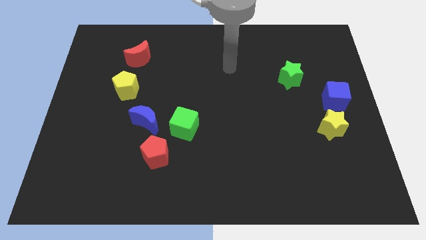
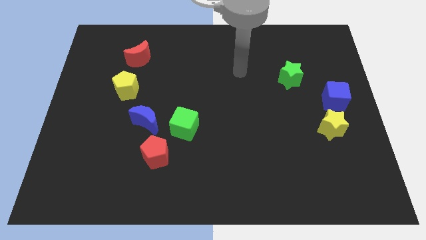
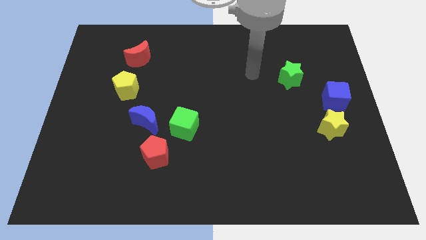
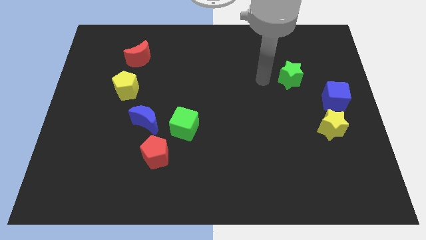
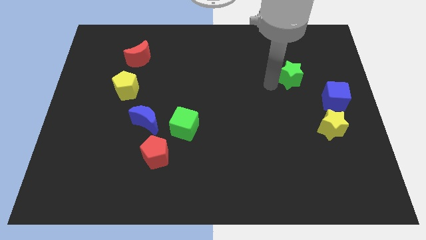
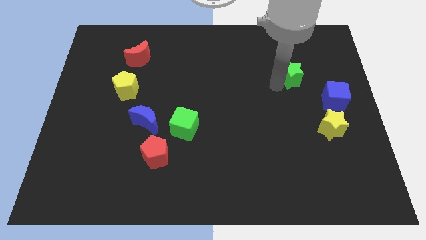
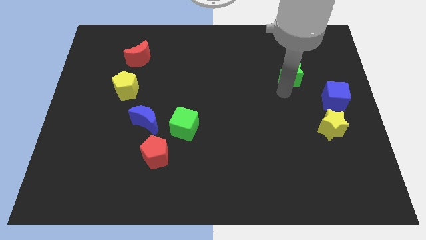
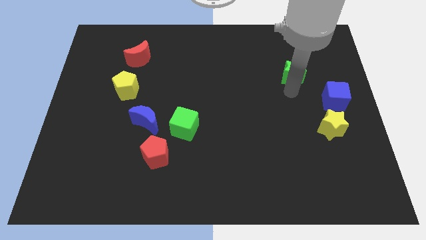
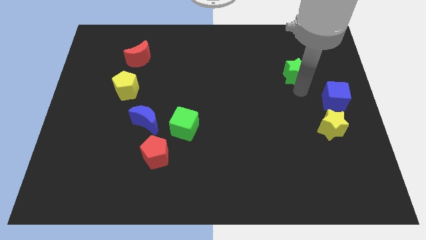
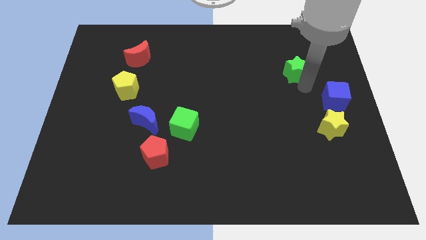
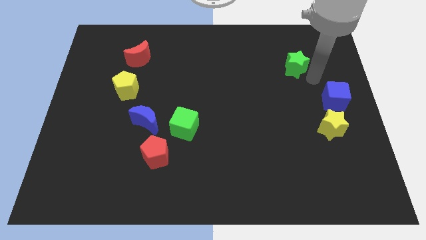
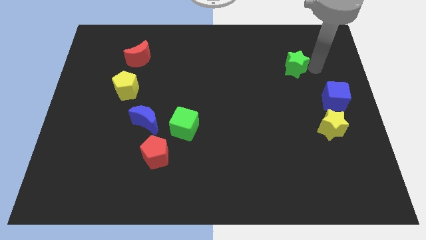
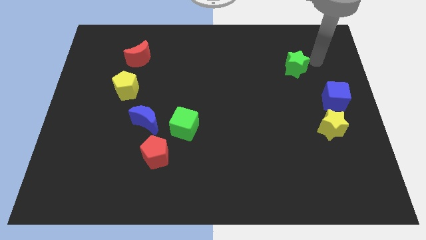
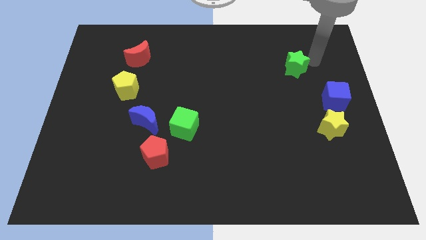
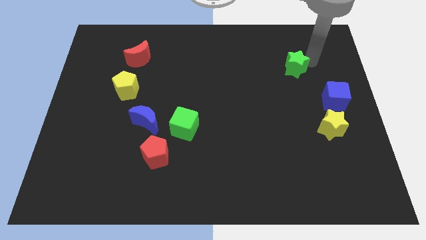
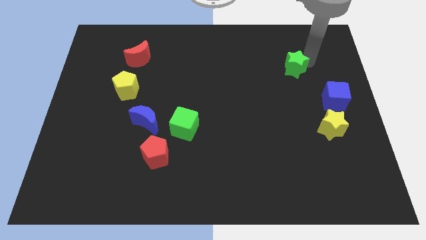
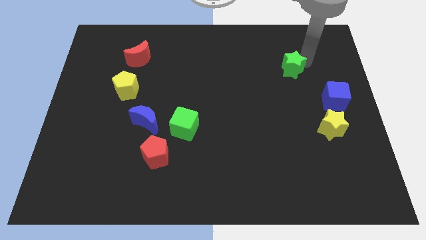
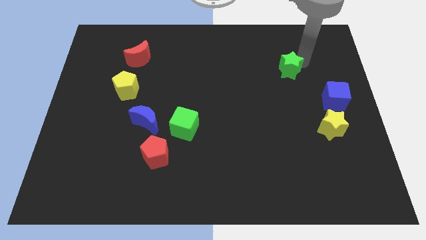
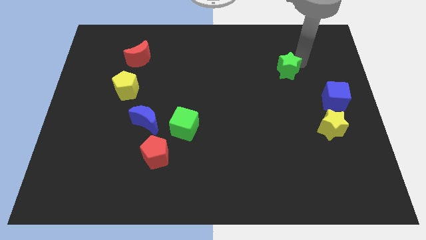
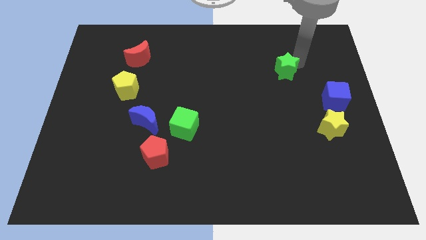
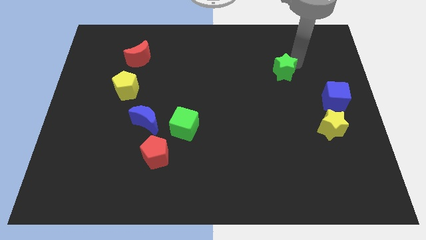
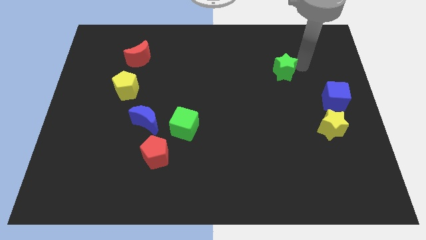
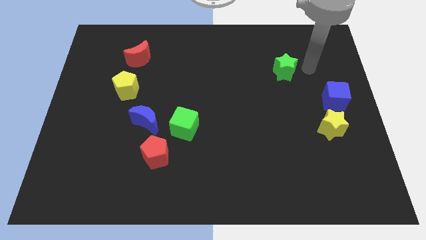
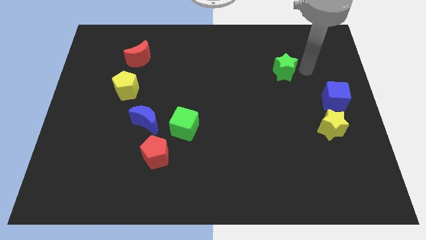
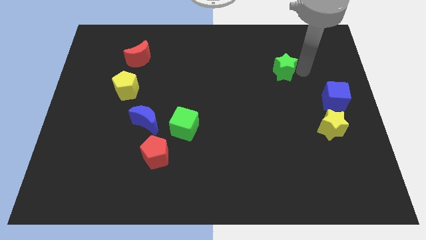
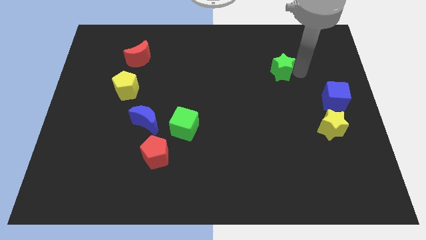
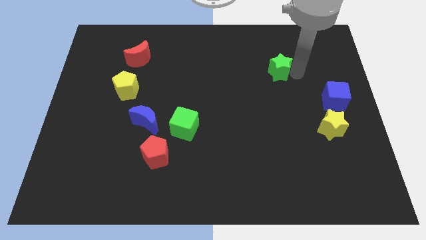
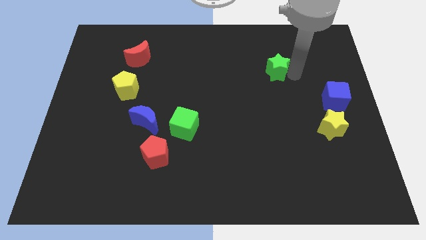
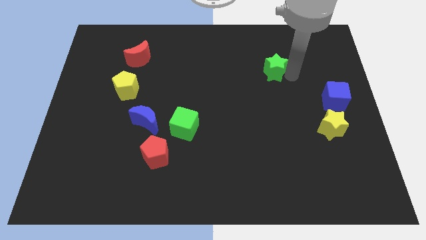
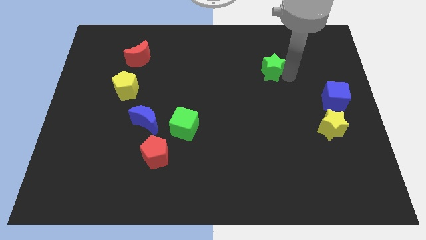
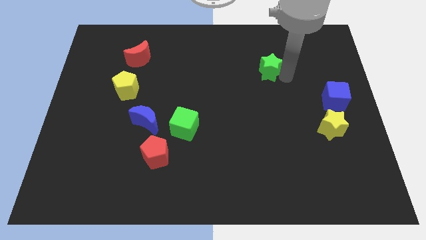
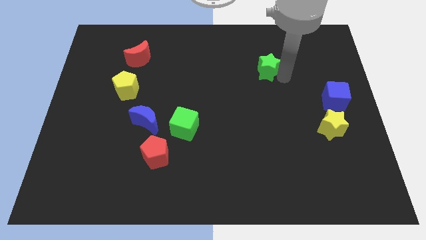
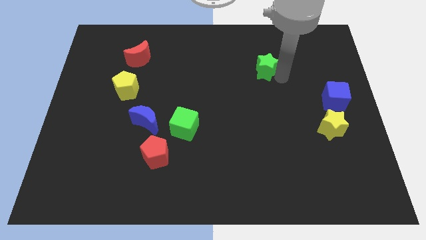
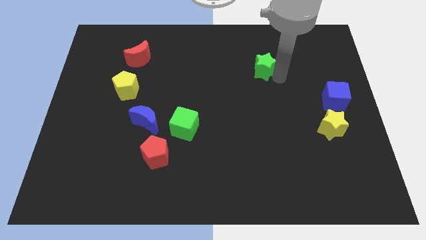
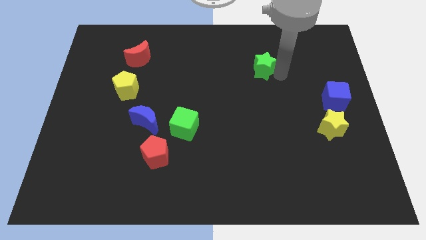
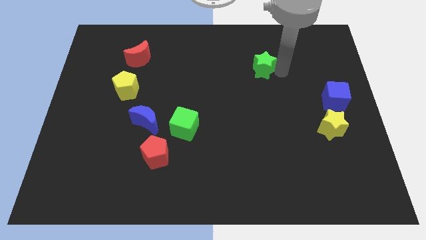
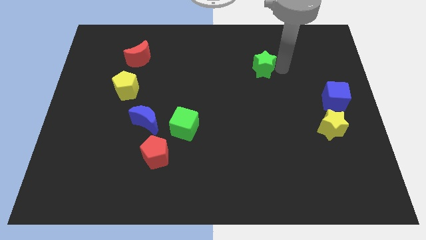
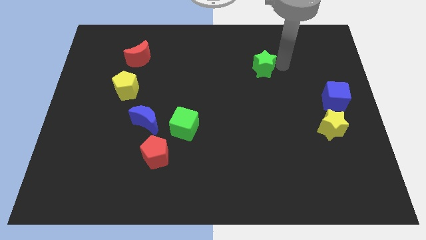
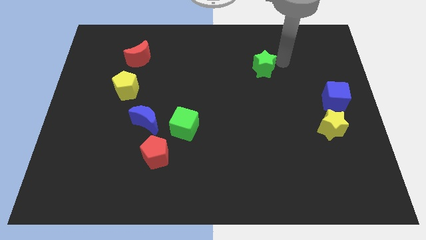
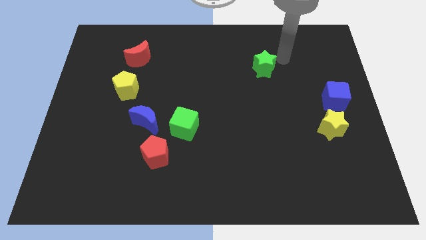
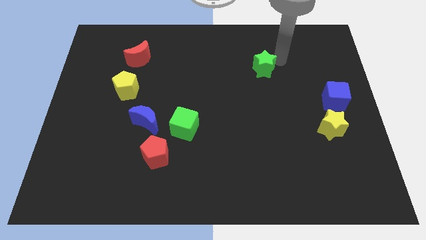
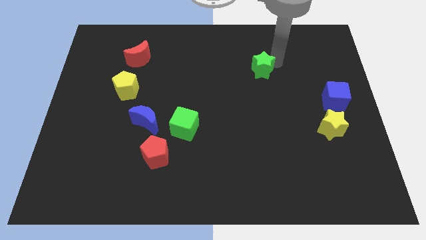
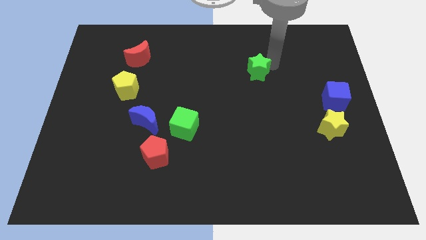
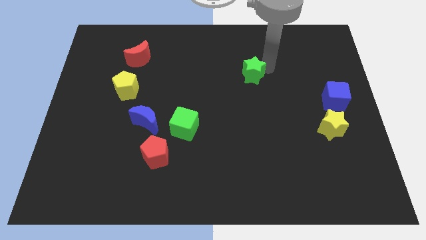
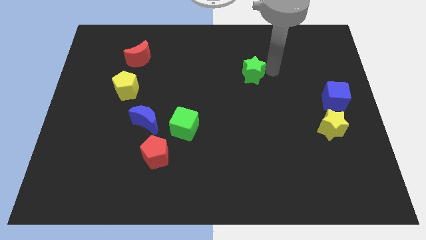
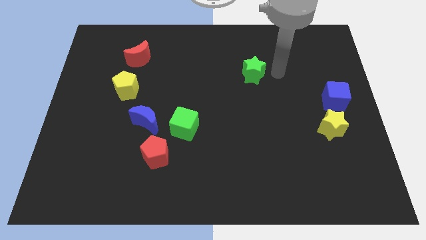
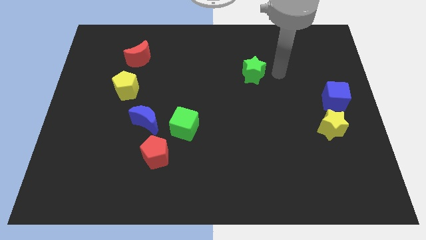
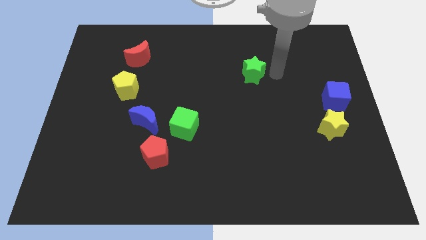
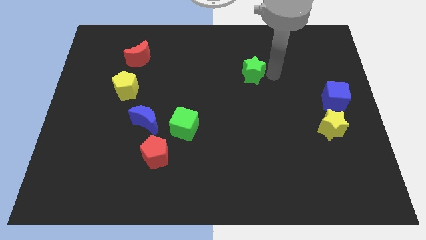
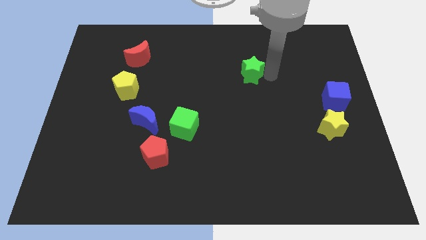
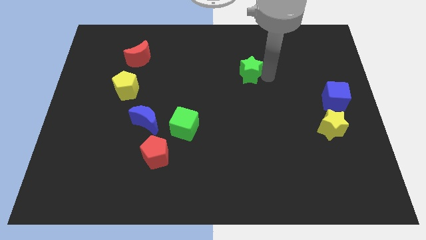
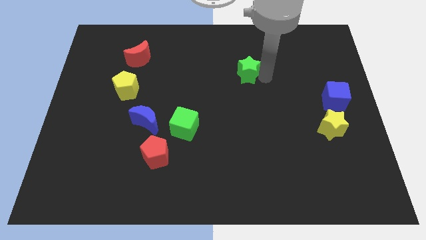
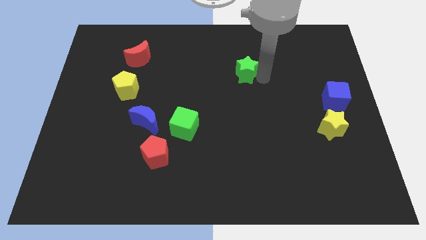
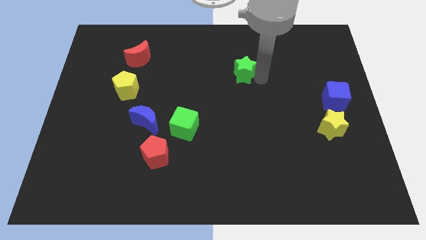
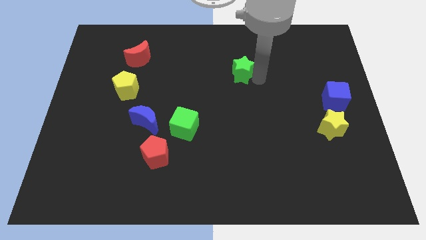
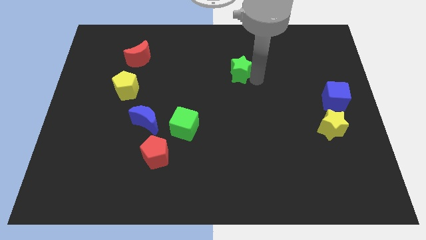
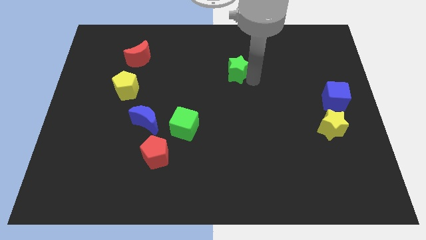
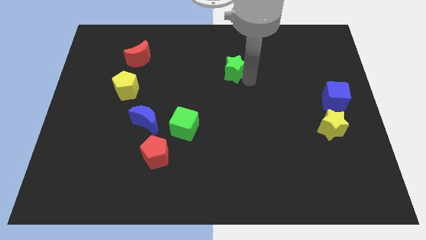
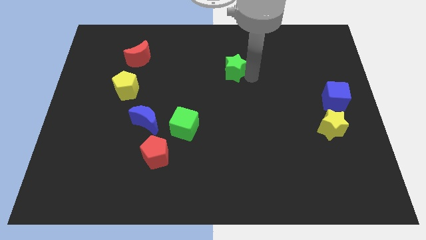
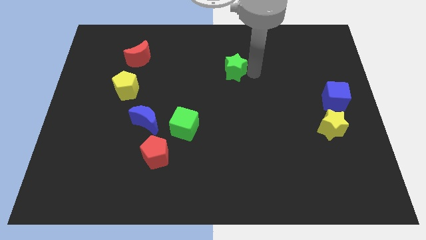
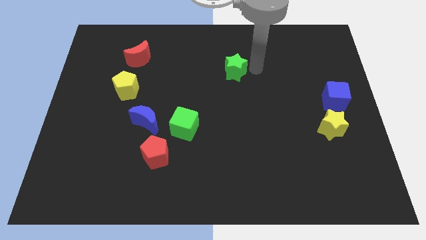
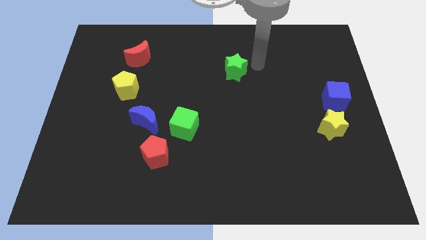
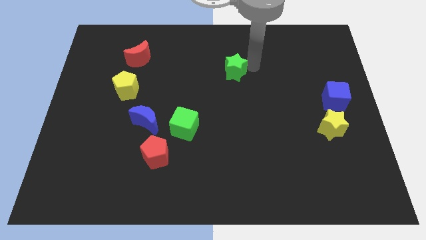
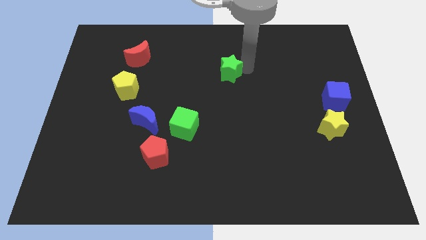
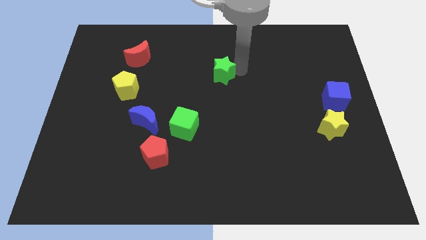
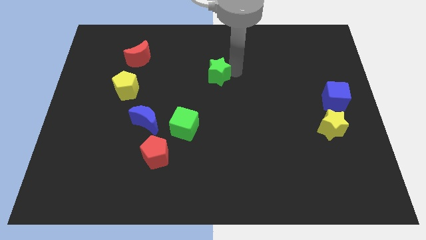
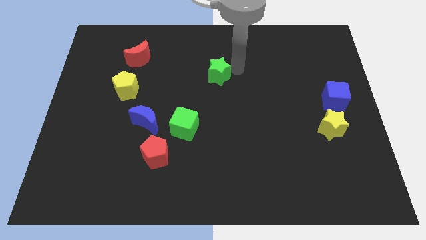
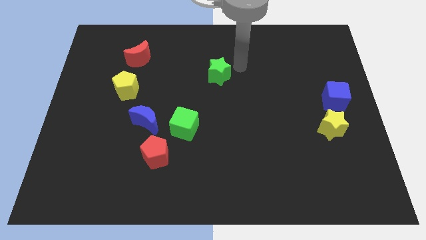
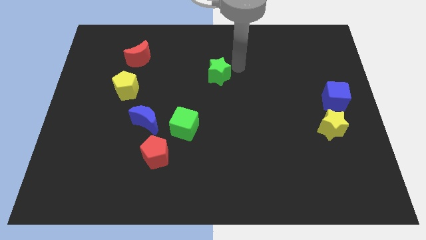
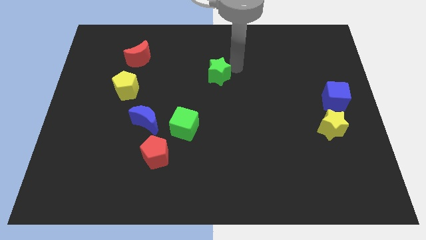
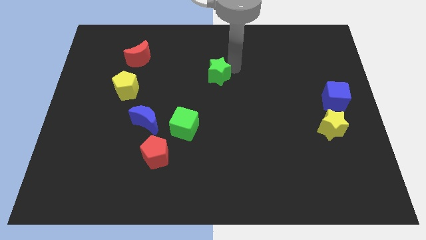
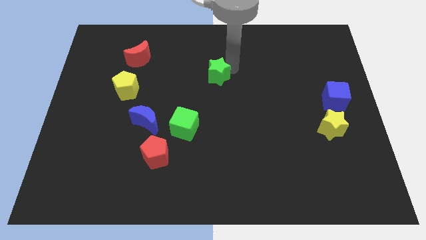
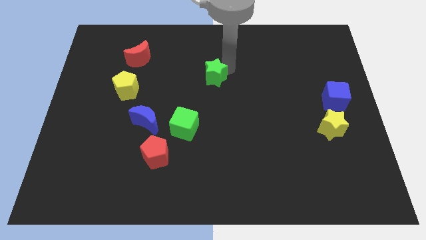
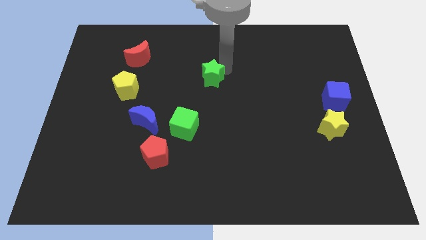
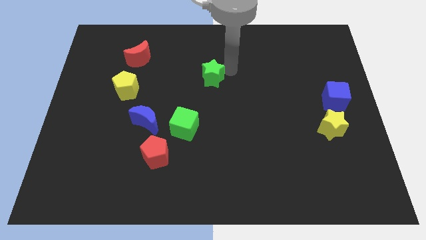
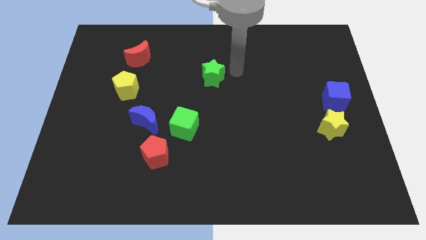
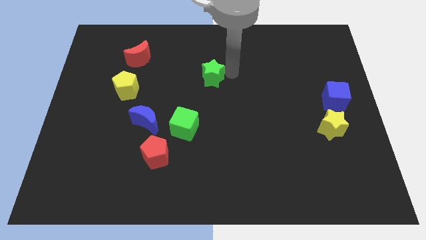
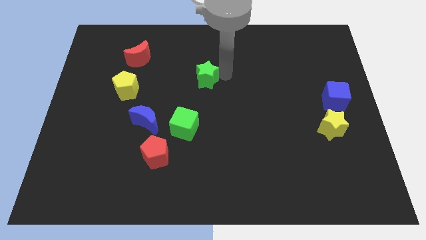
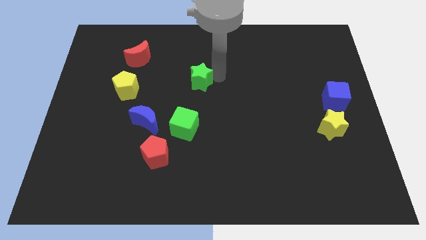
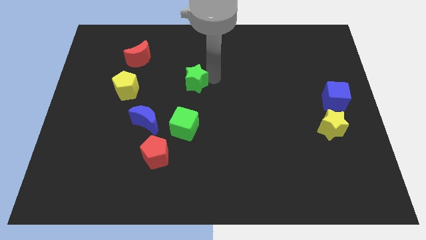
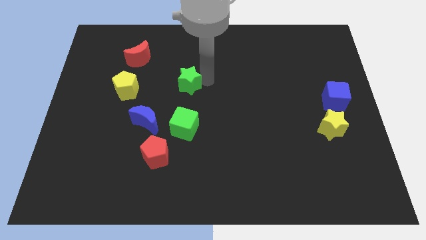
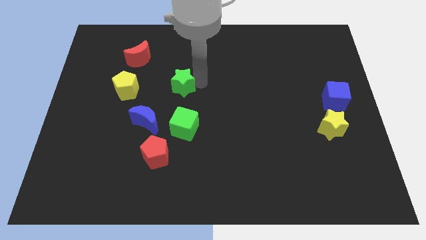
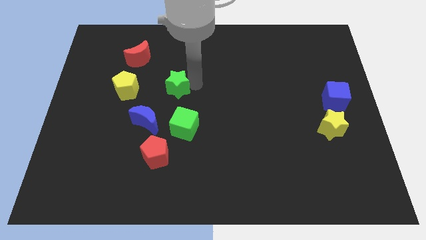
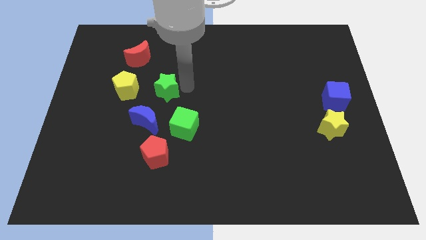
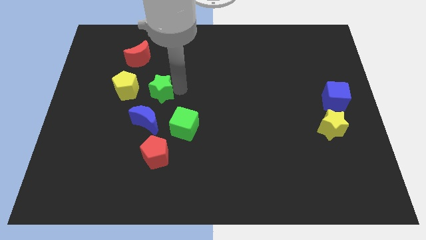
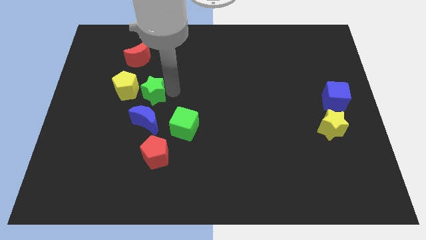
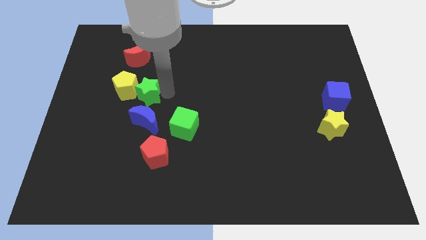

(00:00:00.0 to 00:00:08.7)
put the green star to the yellow pentagon
